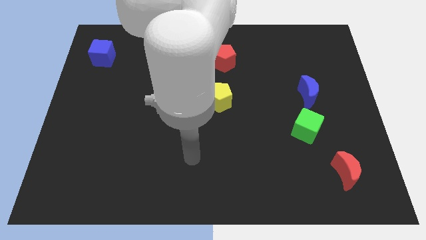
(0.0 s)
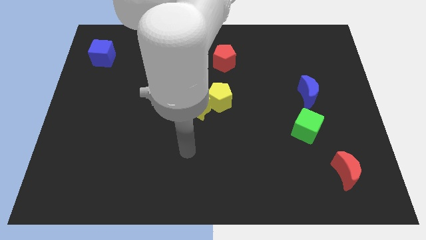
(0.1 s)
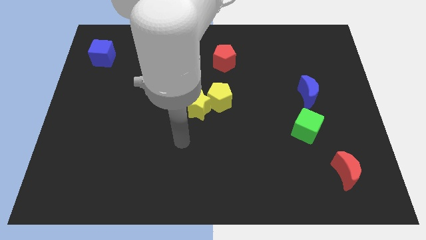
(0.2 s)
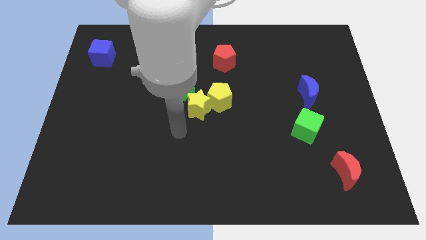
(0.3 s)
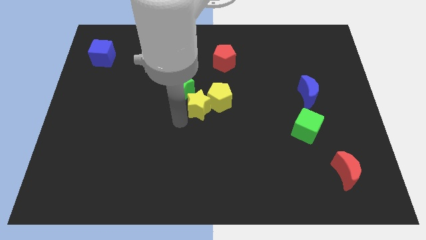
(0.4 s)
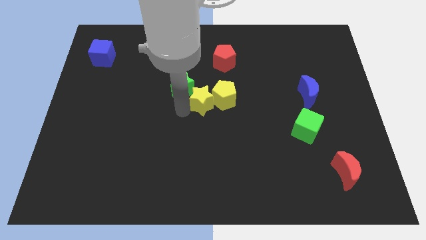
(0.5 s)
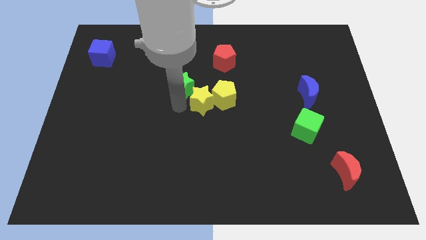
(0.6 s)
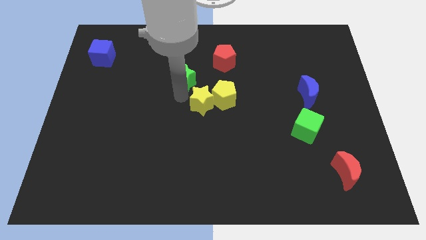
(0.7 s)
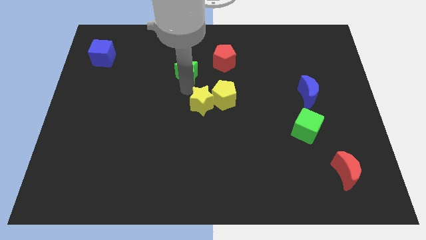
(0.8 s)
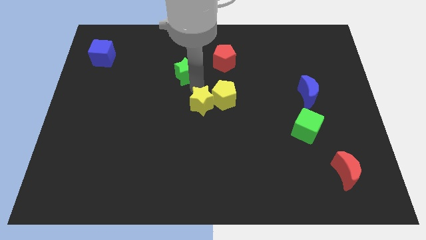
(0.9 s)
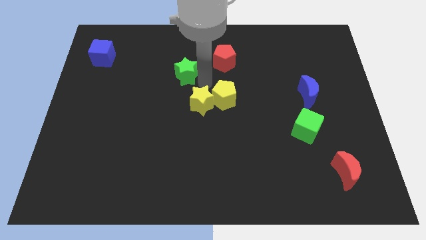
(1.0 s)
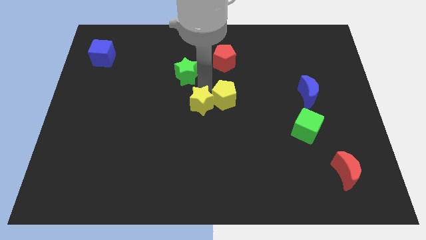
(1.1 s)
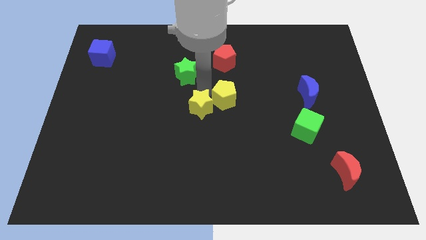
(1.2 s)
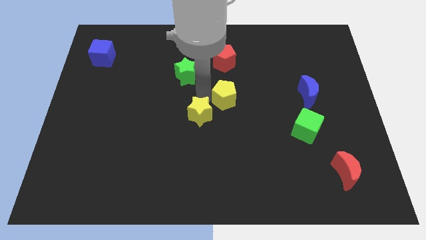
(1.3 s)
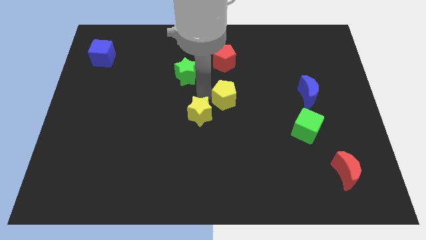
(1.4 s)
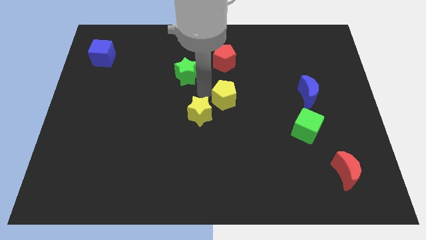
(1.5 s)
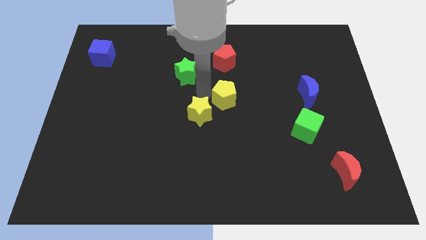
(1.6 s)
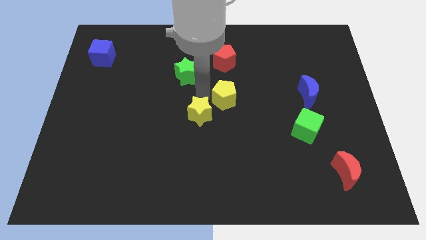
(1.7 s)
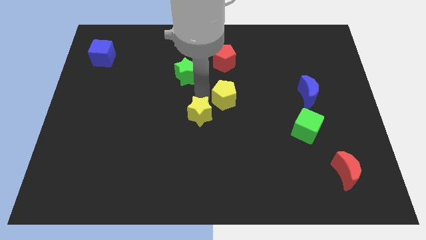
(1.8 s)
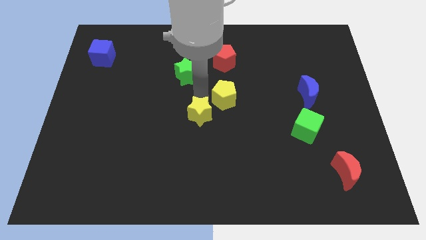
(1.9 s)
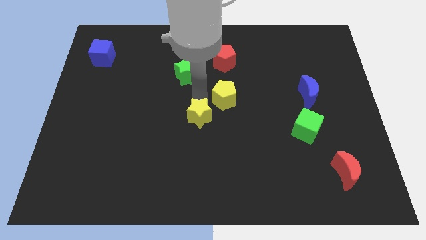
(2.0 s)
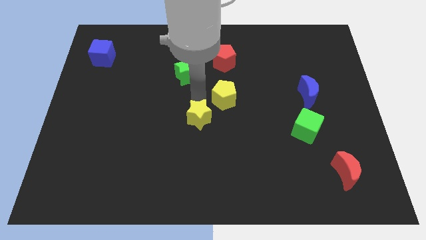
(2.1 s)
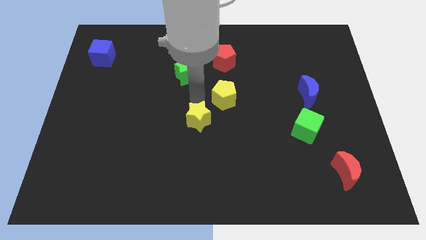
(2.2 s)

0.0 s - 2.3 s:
pull the yellow star apart from the yellow pentagon and green star

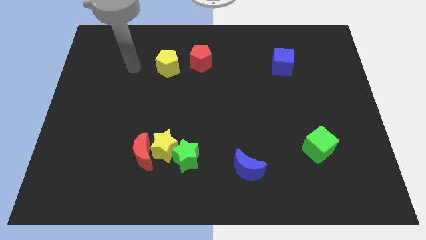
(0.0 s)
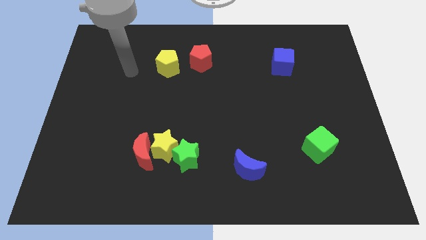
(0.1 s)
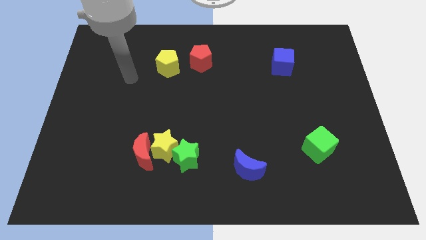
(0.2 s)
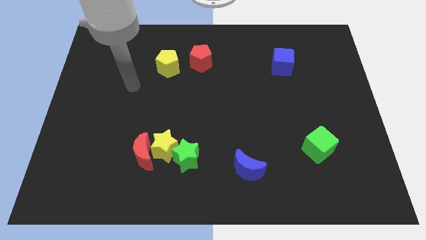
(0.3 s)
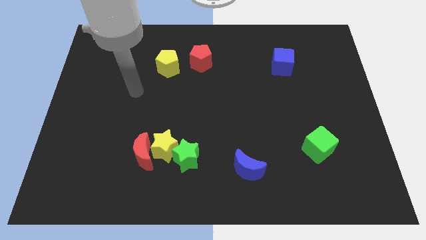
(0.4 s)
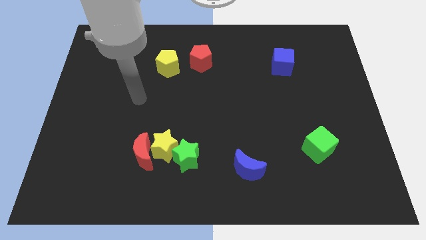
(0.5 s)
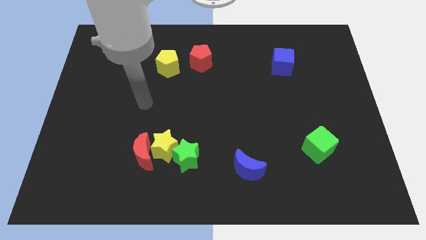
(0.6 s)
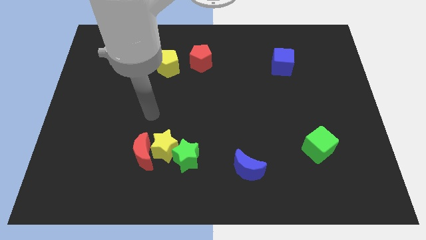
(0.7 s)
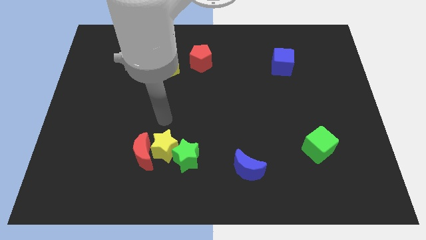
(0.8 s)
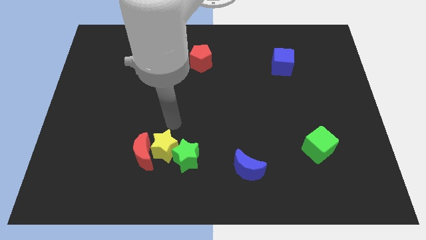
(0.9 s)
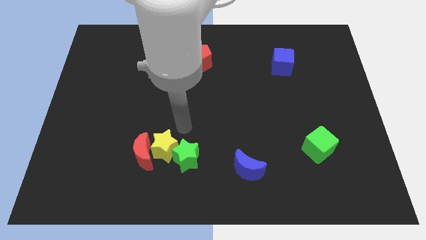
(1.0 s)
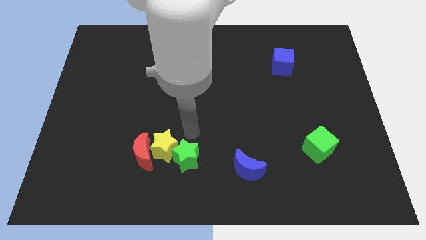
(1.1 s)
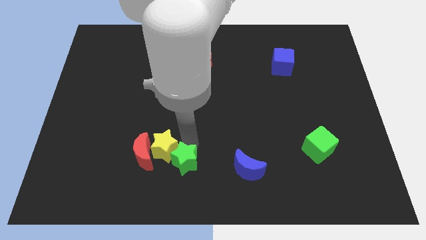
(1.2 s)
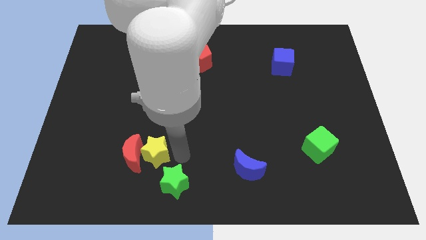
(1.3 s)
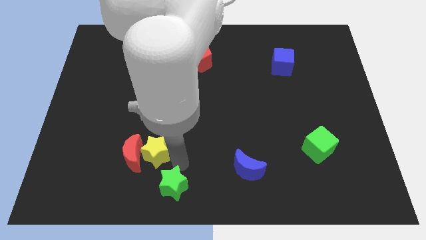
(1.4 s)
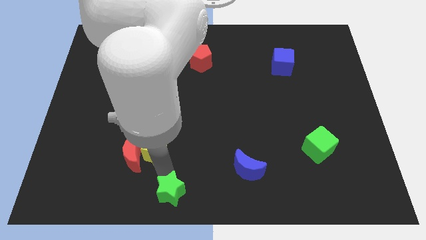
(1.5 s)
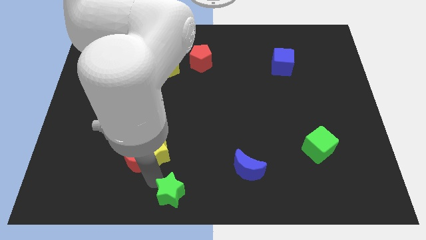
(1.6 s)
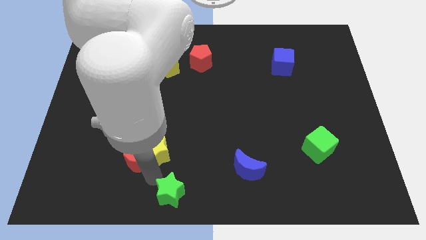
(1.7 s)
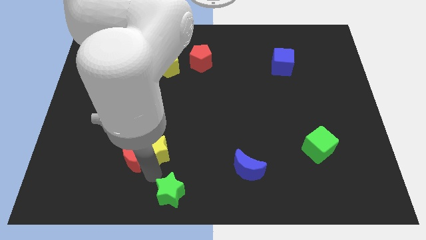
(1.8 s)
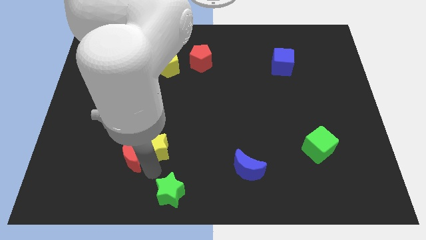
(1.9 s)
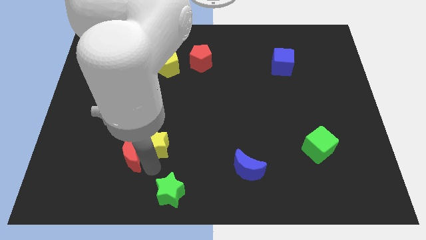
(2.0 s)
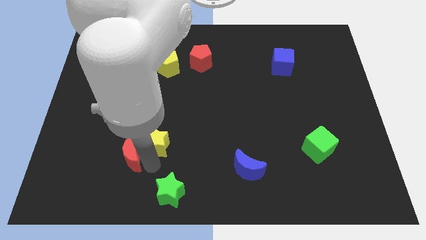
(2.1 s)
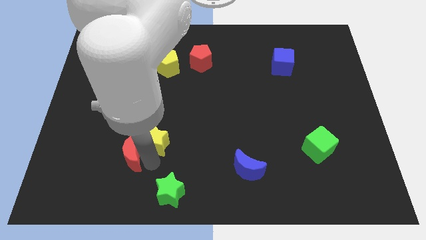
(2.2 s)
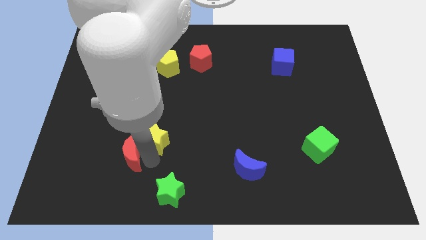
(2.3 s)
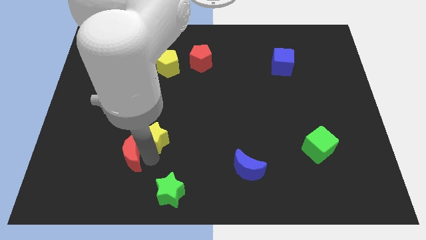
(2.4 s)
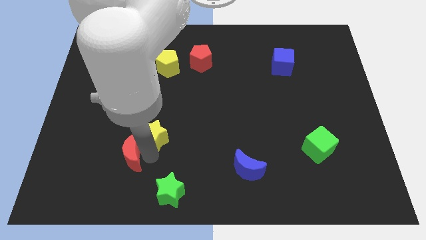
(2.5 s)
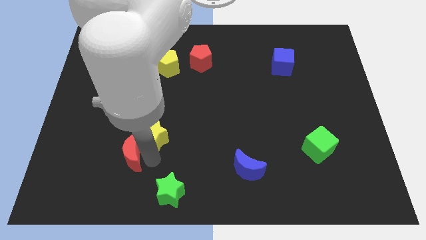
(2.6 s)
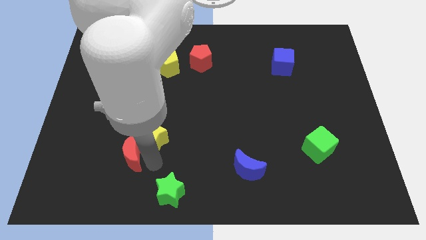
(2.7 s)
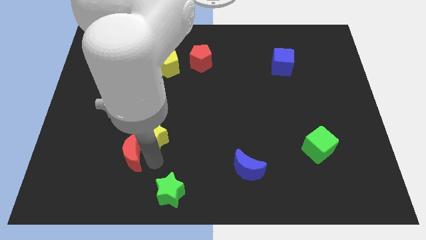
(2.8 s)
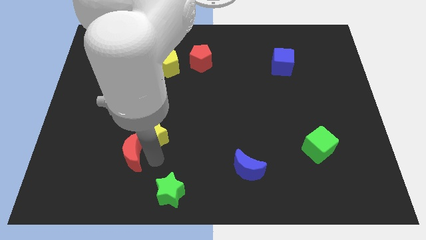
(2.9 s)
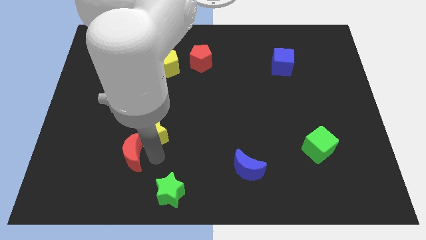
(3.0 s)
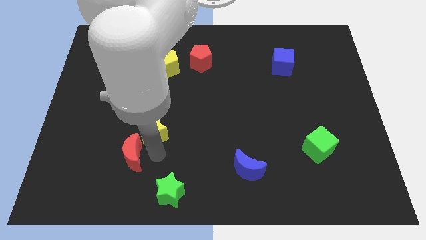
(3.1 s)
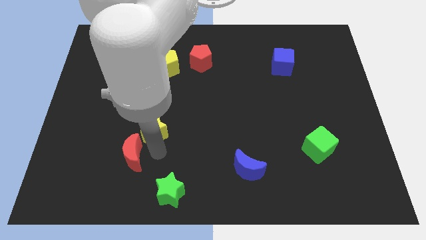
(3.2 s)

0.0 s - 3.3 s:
move the yellow star away from the red moon and green star

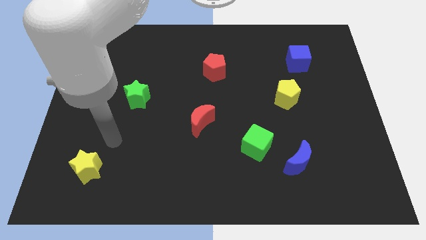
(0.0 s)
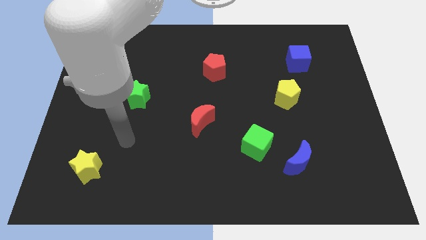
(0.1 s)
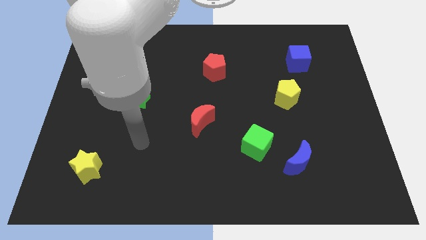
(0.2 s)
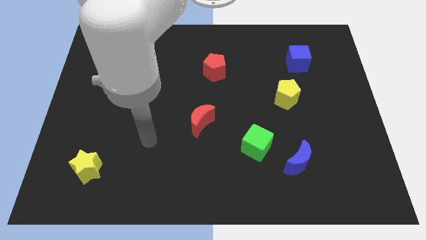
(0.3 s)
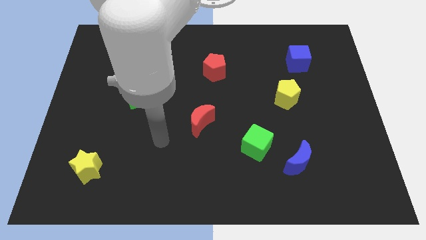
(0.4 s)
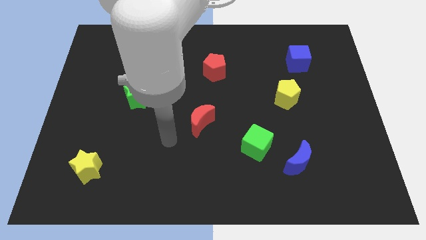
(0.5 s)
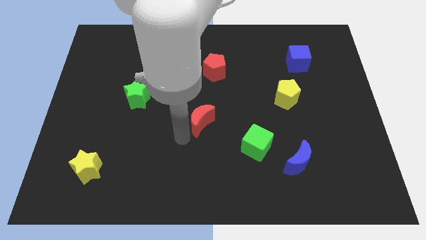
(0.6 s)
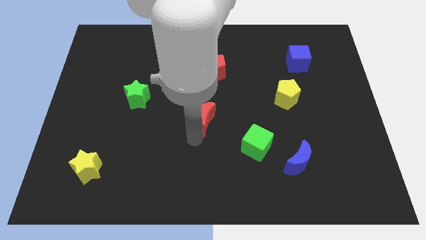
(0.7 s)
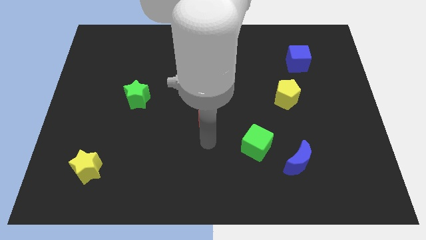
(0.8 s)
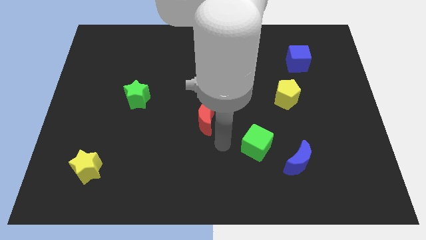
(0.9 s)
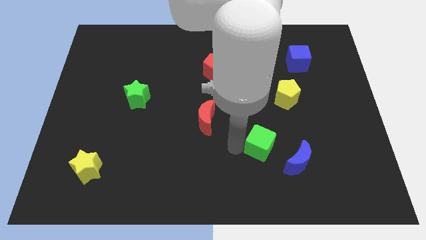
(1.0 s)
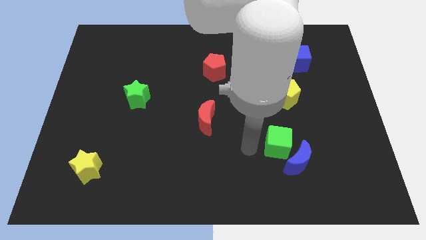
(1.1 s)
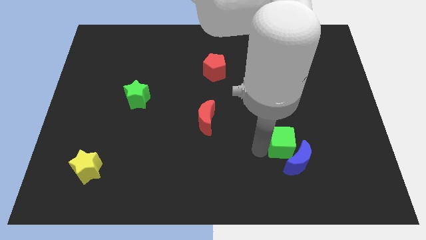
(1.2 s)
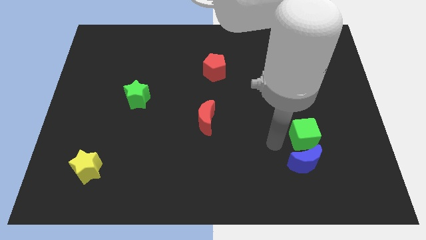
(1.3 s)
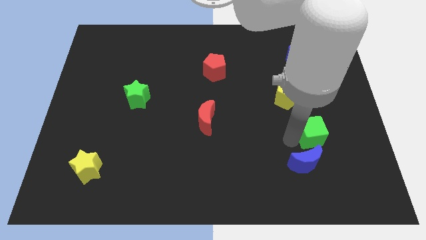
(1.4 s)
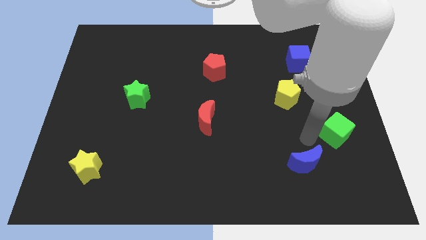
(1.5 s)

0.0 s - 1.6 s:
pull the blue moon apart from the green cube

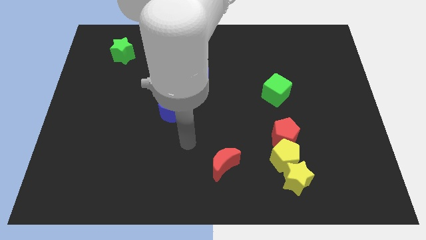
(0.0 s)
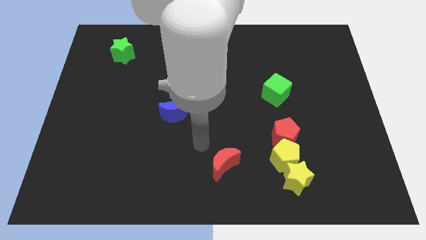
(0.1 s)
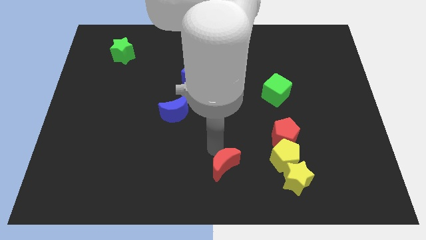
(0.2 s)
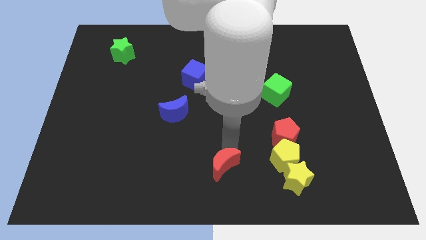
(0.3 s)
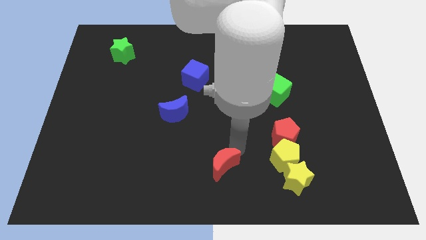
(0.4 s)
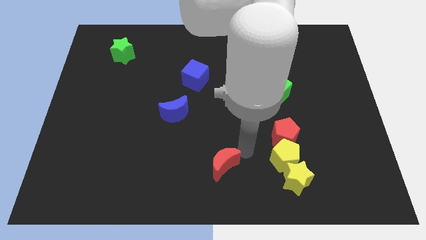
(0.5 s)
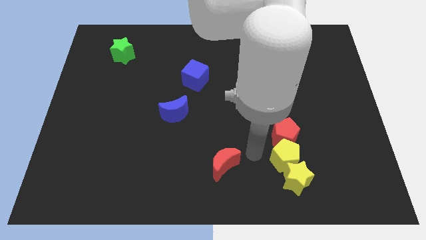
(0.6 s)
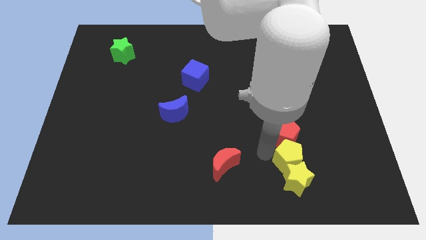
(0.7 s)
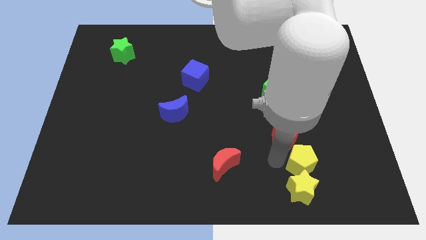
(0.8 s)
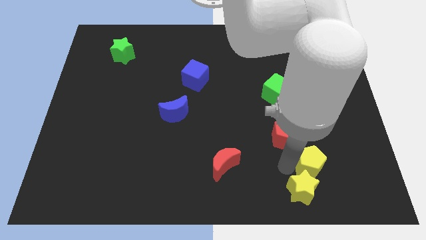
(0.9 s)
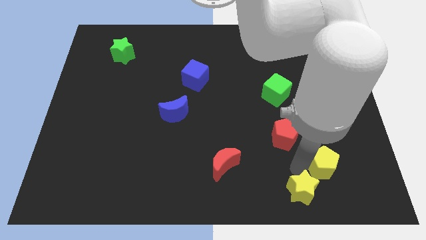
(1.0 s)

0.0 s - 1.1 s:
pull the red pentagon apart from the yellow pentagon

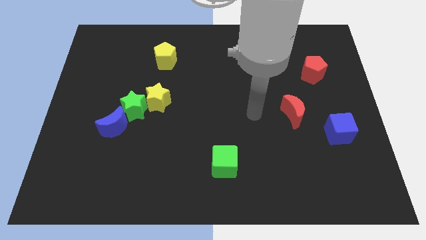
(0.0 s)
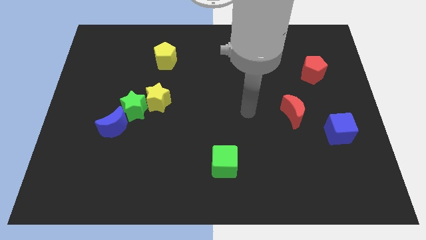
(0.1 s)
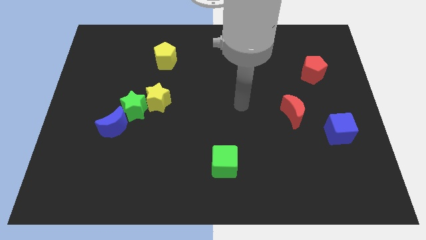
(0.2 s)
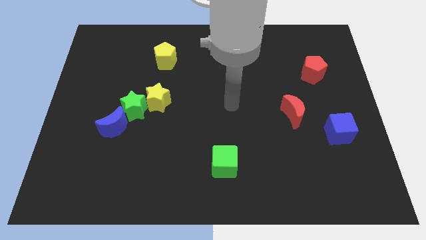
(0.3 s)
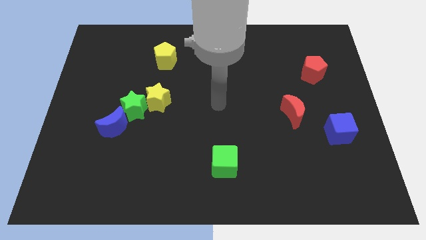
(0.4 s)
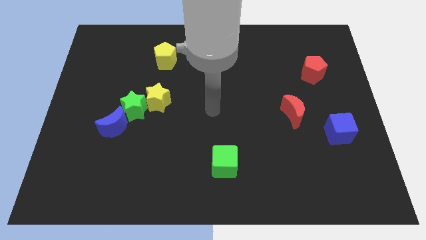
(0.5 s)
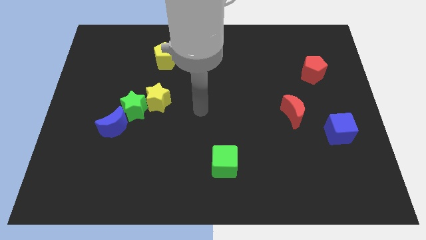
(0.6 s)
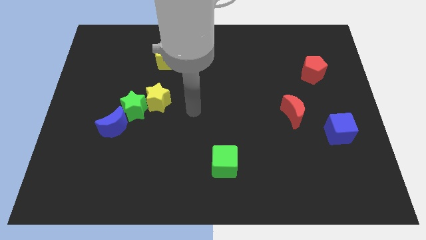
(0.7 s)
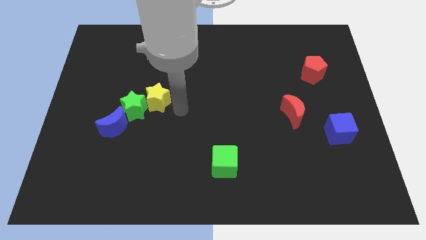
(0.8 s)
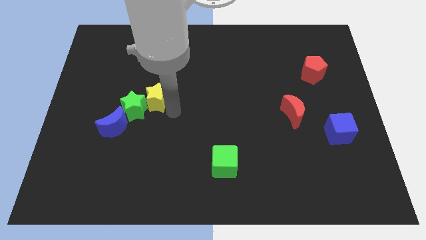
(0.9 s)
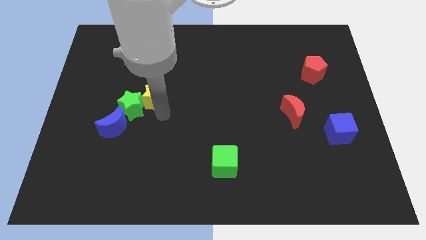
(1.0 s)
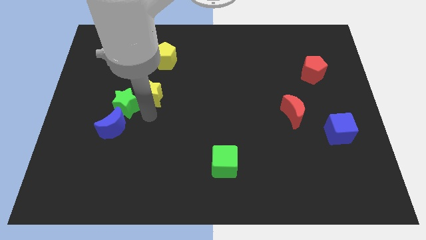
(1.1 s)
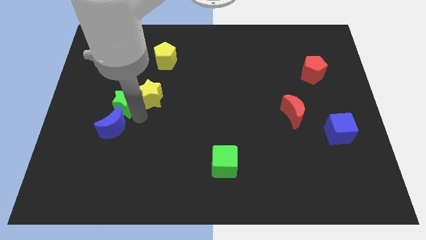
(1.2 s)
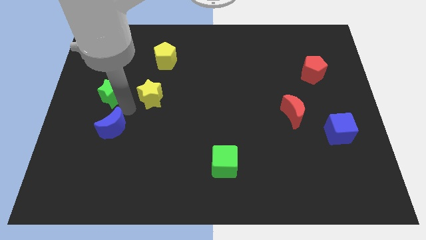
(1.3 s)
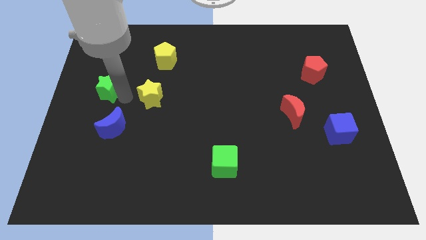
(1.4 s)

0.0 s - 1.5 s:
pull the yellow star apart from the green star
